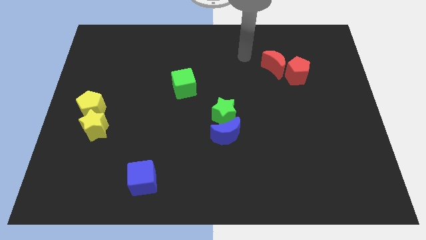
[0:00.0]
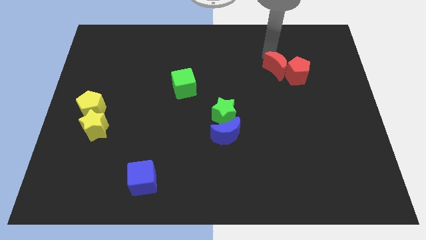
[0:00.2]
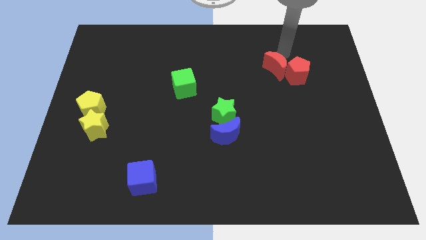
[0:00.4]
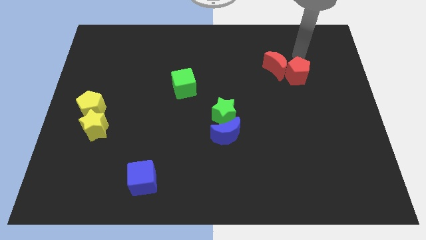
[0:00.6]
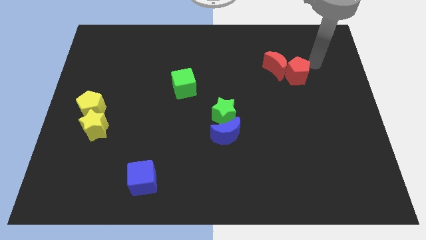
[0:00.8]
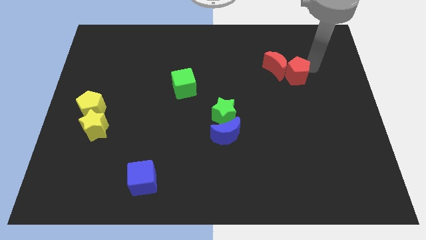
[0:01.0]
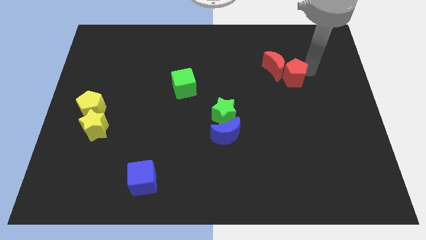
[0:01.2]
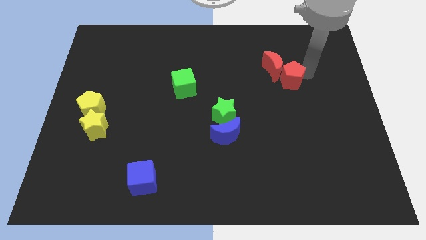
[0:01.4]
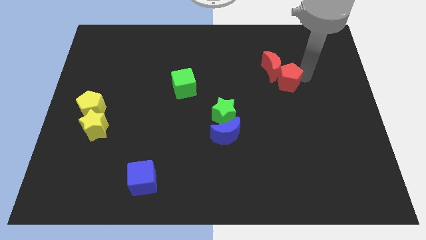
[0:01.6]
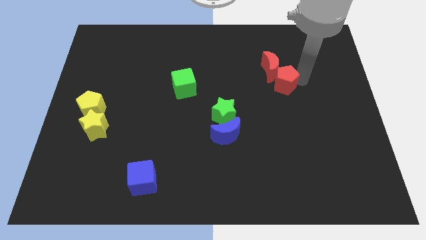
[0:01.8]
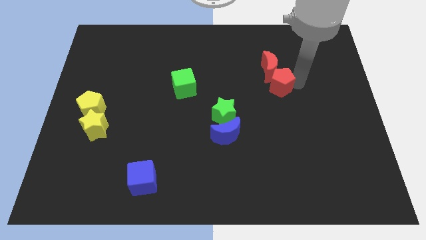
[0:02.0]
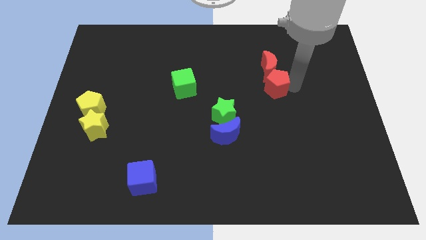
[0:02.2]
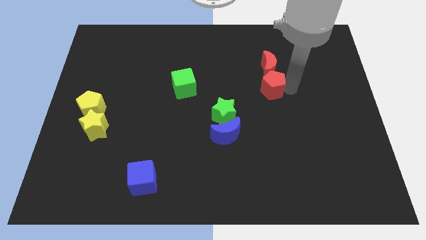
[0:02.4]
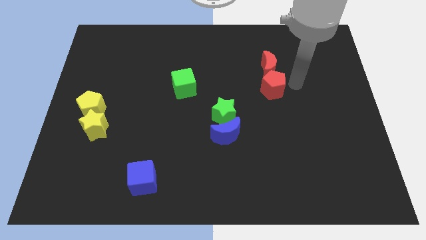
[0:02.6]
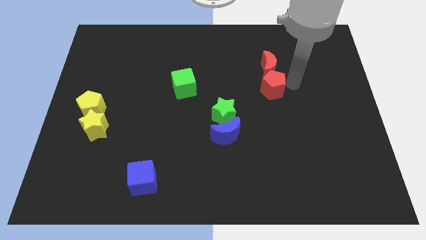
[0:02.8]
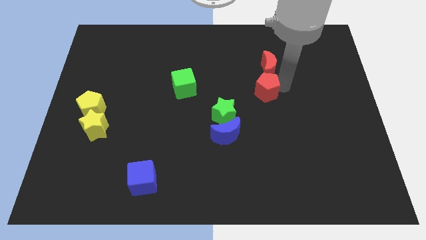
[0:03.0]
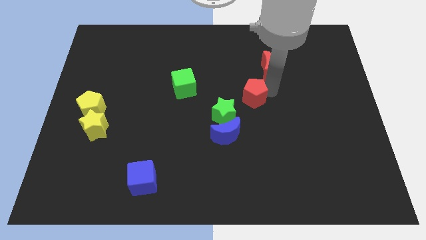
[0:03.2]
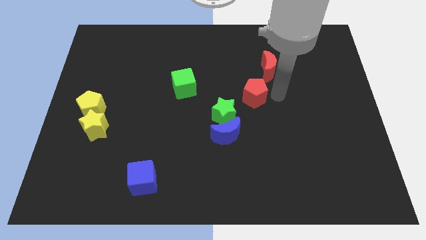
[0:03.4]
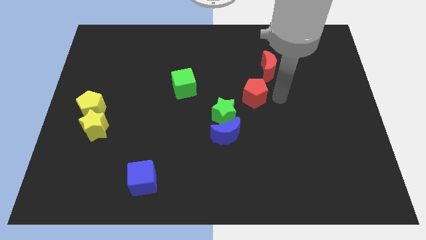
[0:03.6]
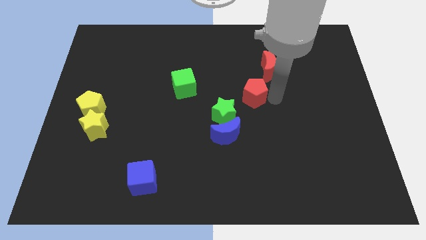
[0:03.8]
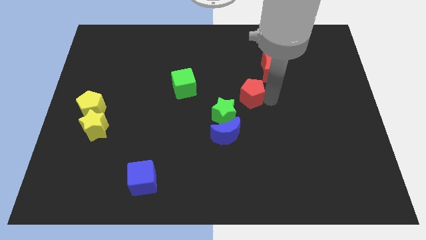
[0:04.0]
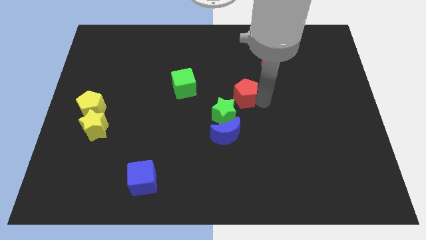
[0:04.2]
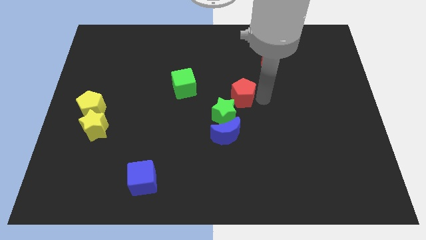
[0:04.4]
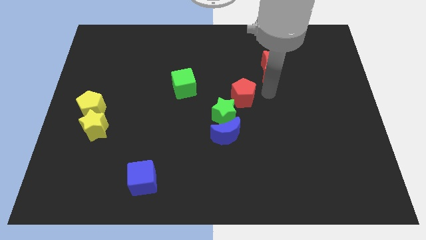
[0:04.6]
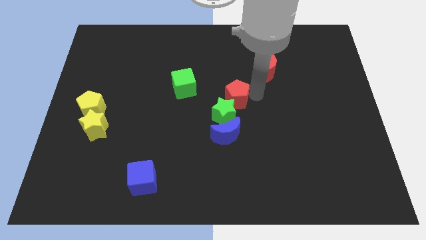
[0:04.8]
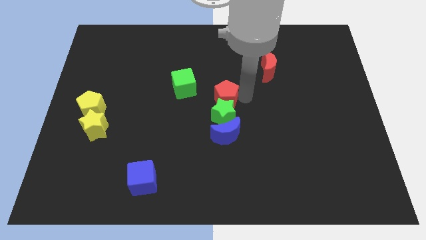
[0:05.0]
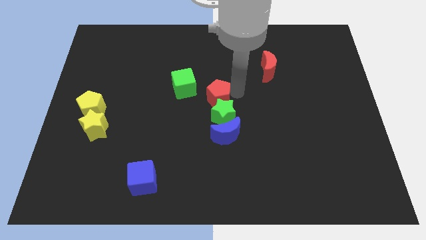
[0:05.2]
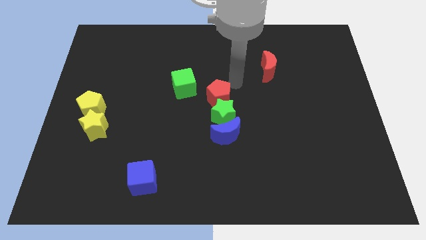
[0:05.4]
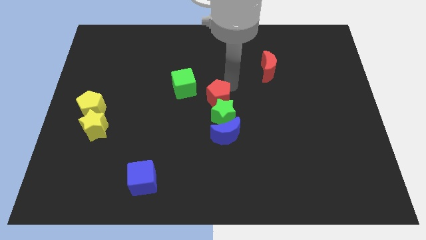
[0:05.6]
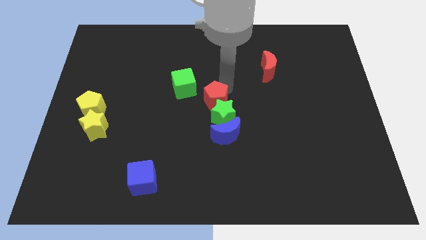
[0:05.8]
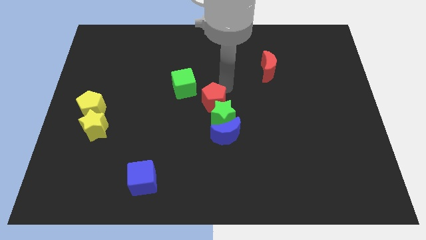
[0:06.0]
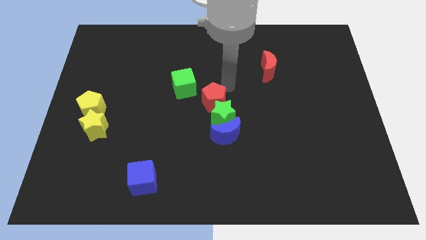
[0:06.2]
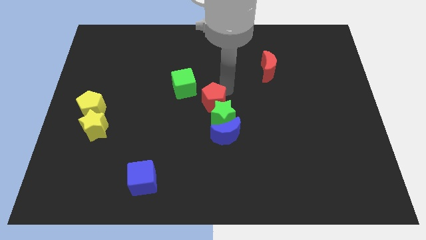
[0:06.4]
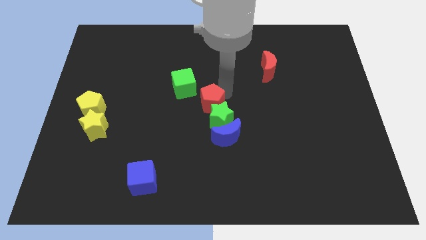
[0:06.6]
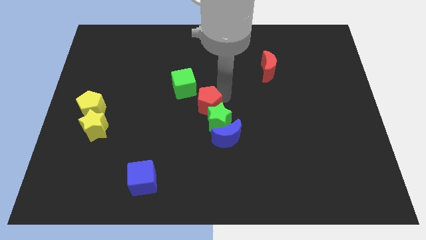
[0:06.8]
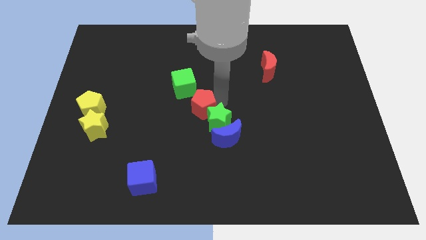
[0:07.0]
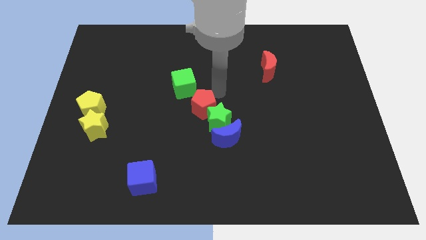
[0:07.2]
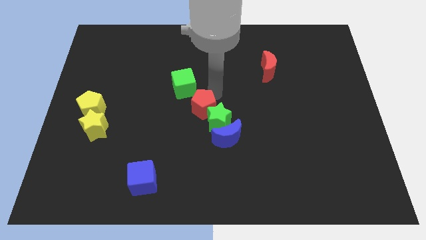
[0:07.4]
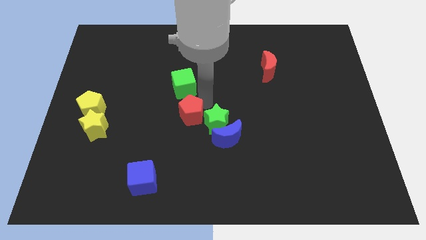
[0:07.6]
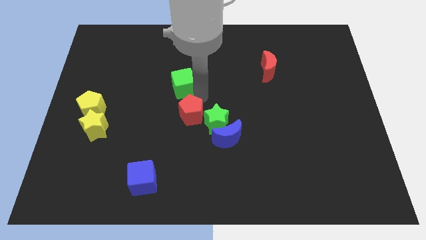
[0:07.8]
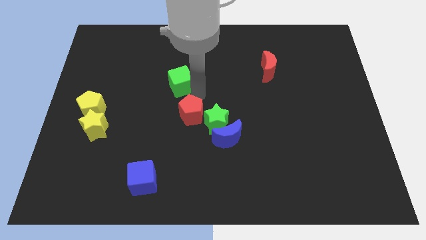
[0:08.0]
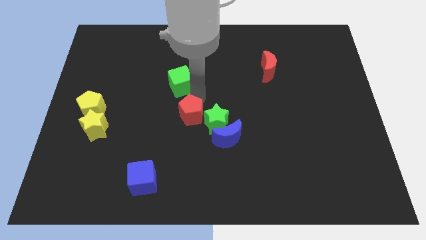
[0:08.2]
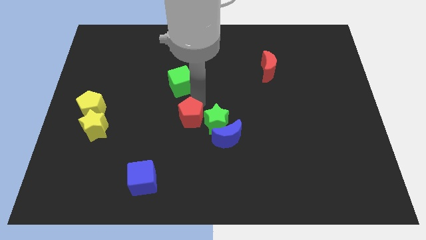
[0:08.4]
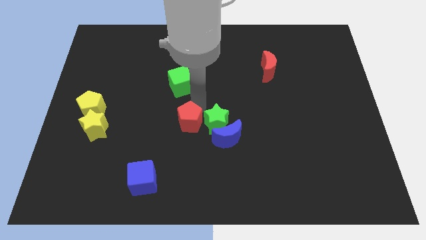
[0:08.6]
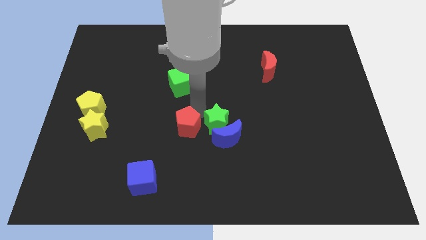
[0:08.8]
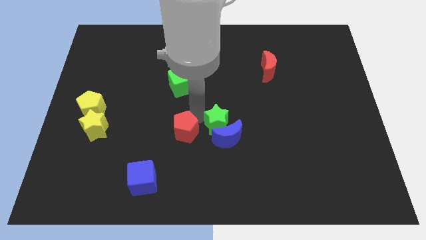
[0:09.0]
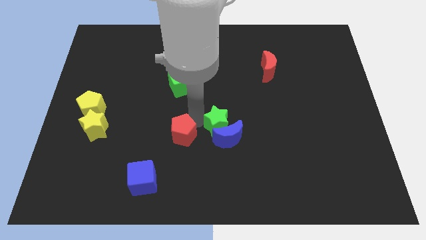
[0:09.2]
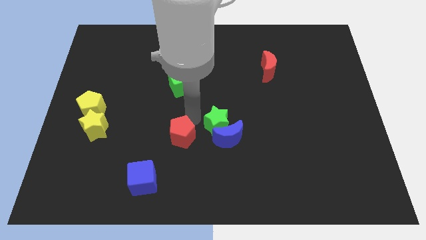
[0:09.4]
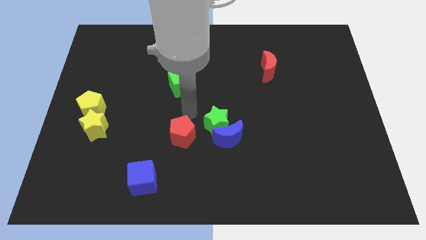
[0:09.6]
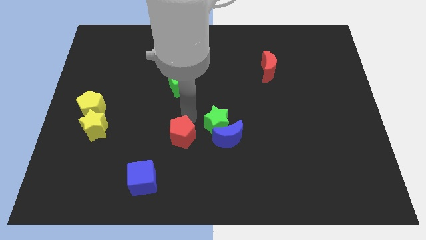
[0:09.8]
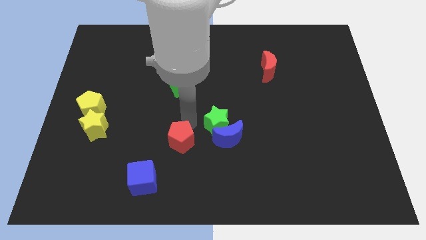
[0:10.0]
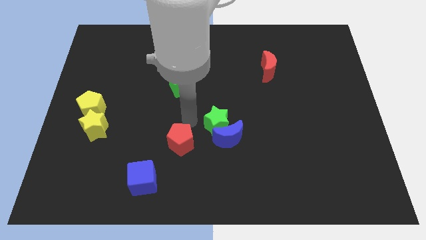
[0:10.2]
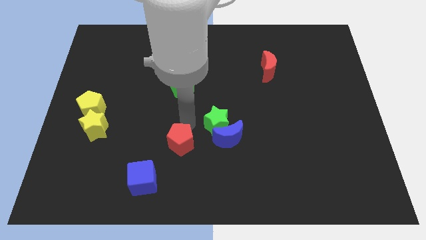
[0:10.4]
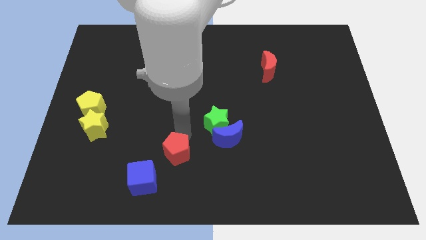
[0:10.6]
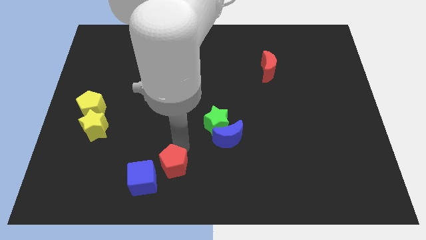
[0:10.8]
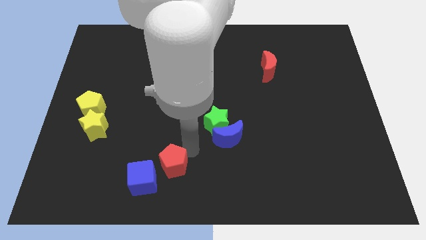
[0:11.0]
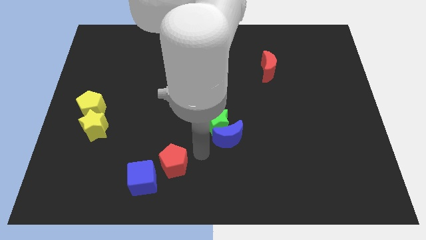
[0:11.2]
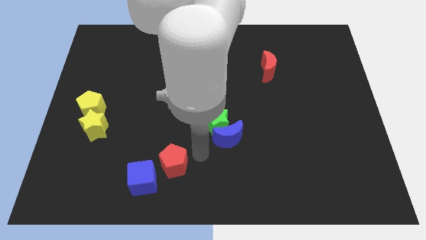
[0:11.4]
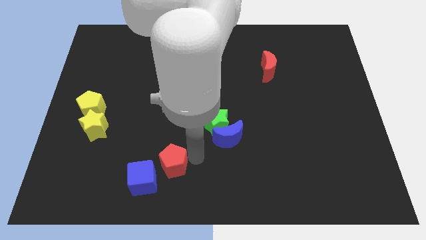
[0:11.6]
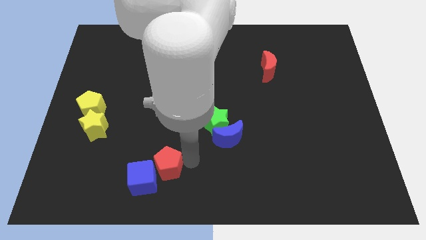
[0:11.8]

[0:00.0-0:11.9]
slide the red pentagon towards the blue cube
